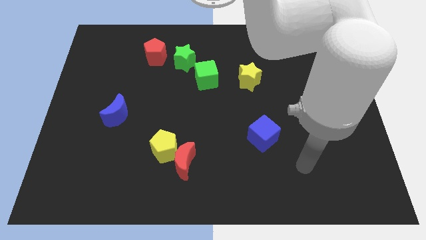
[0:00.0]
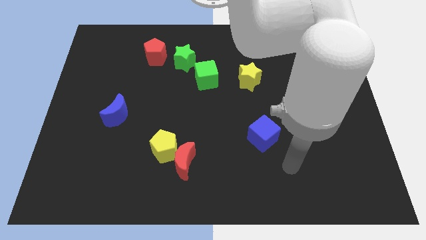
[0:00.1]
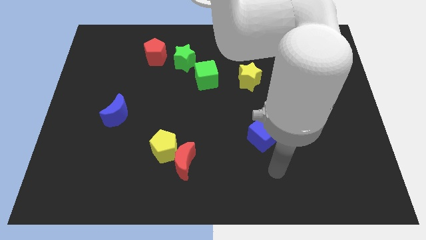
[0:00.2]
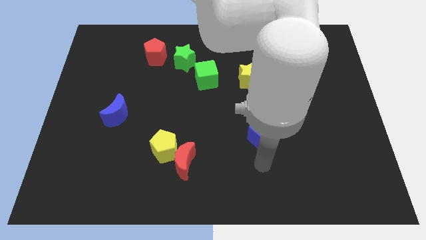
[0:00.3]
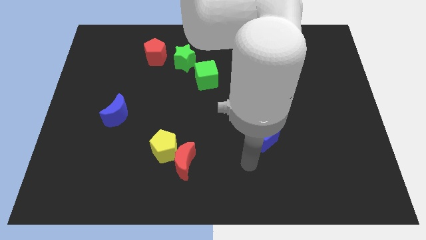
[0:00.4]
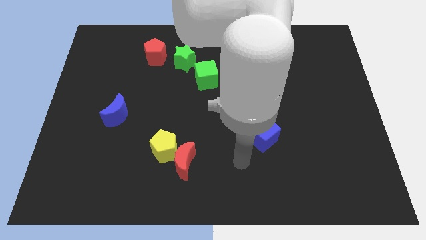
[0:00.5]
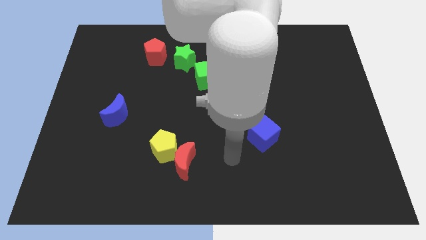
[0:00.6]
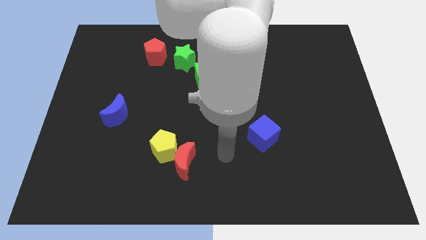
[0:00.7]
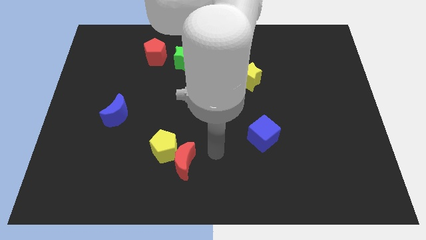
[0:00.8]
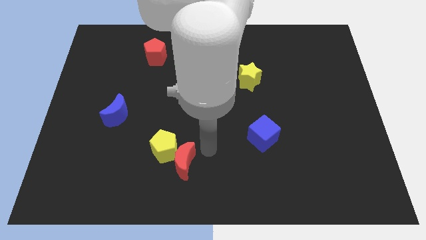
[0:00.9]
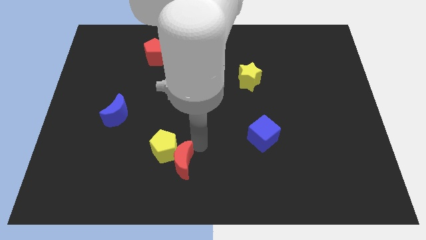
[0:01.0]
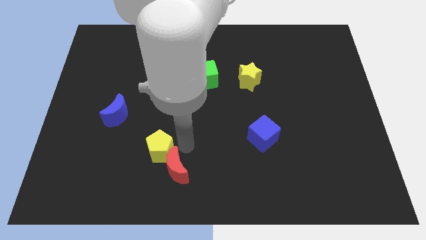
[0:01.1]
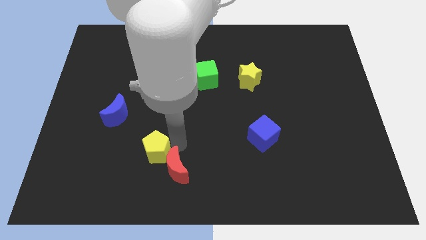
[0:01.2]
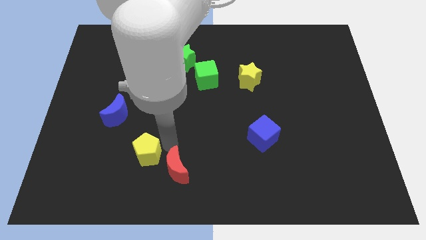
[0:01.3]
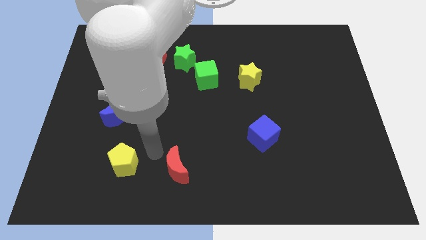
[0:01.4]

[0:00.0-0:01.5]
separate the red moon from the yellow pentagon

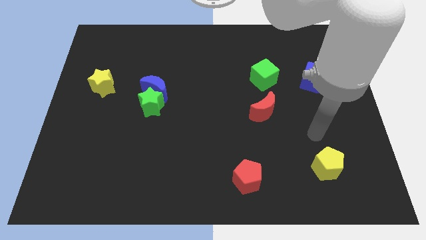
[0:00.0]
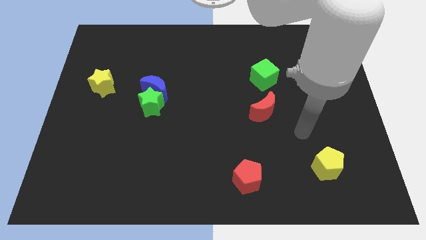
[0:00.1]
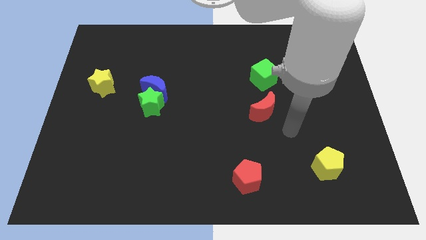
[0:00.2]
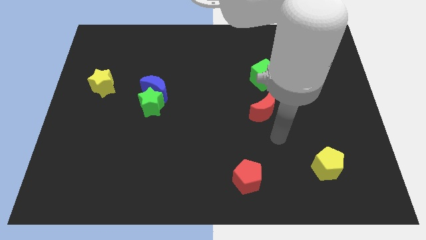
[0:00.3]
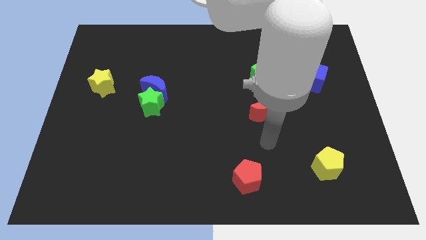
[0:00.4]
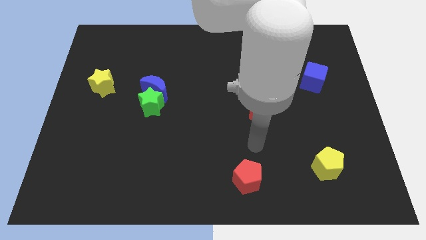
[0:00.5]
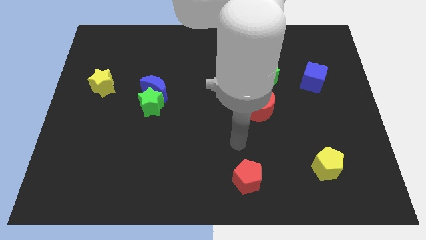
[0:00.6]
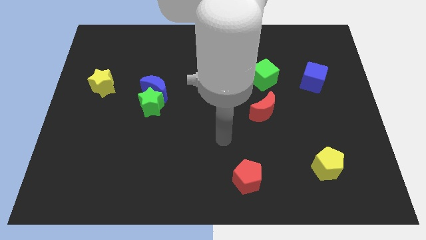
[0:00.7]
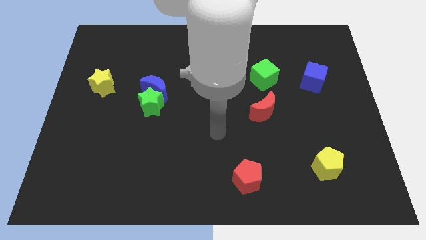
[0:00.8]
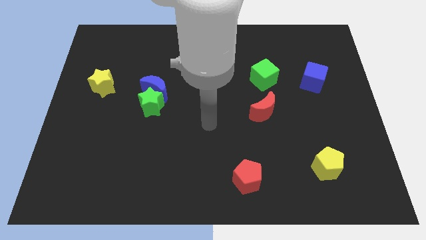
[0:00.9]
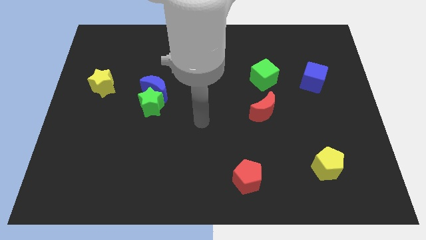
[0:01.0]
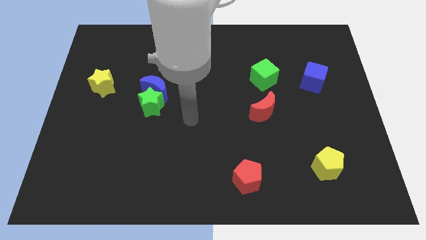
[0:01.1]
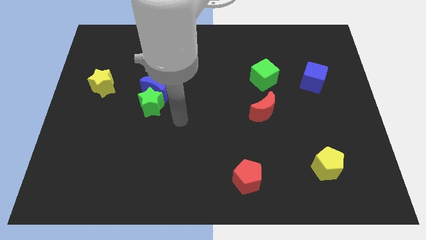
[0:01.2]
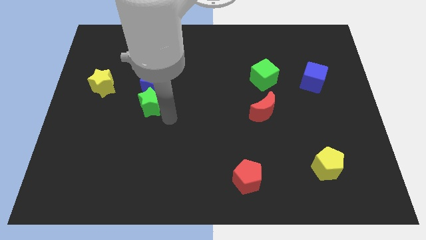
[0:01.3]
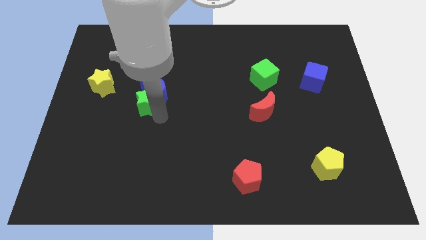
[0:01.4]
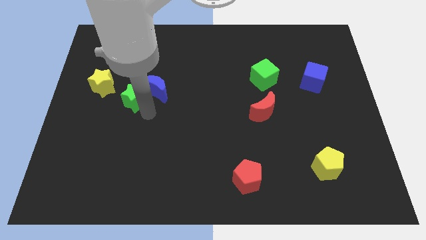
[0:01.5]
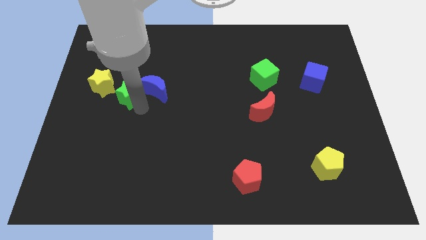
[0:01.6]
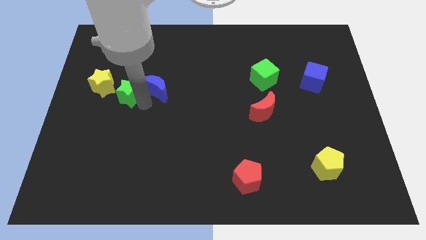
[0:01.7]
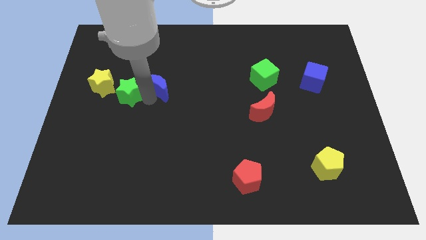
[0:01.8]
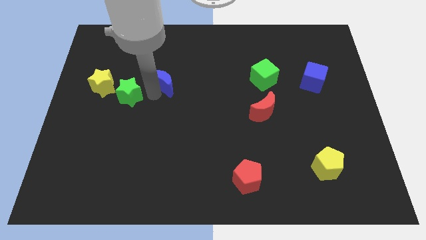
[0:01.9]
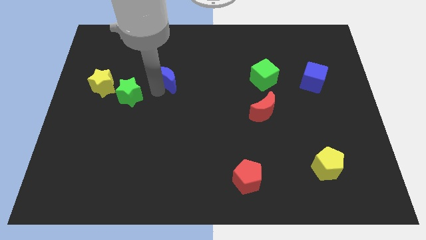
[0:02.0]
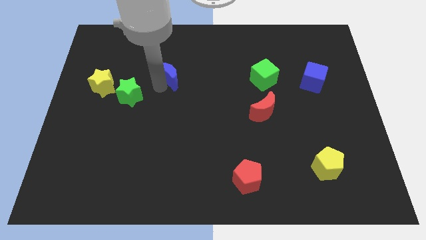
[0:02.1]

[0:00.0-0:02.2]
move the blue moon away from the green star

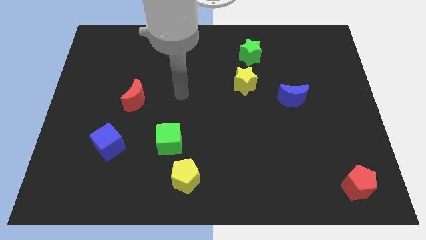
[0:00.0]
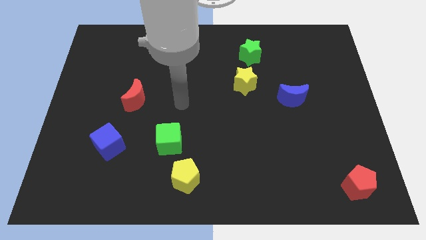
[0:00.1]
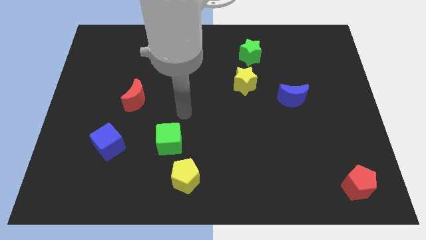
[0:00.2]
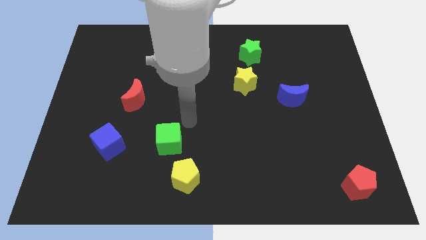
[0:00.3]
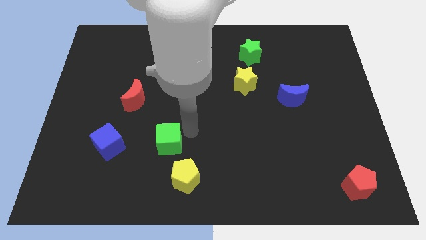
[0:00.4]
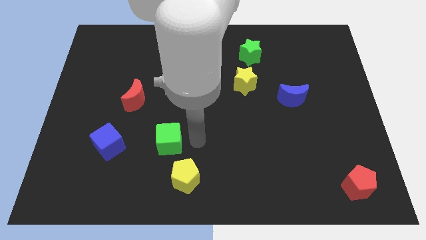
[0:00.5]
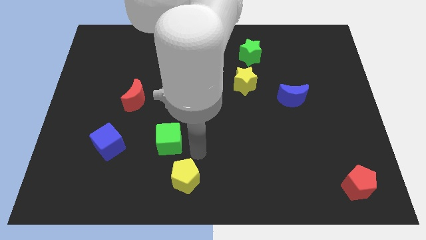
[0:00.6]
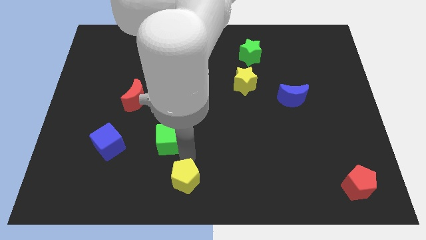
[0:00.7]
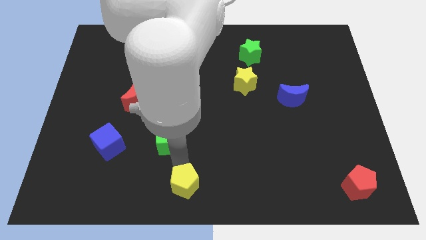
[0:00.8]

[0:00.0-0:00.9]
separate the green cube from the yellow pentagon

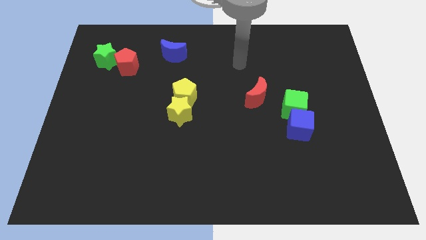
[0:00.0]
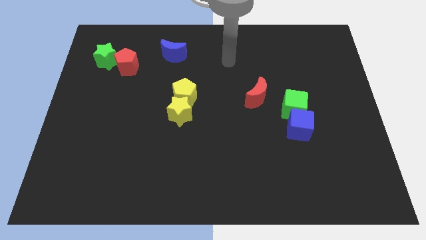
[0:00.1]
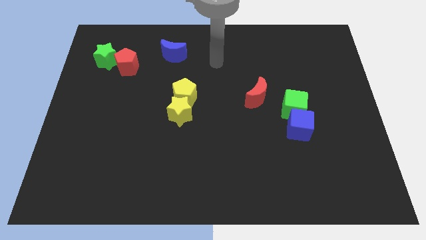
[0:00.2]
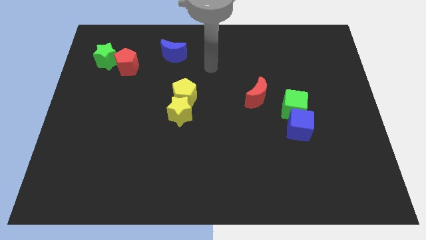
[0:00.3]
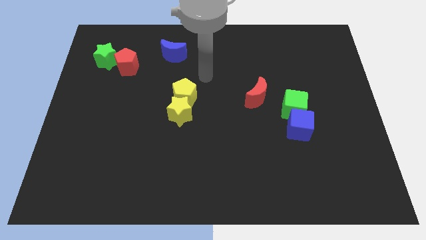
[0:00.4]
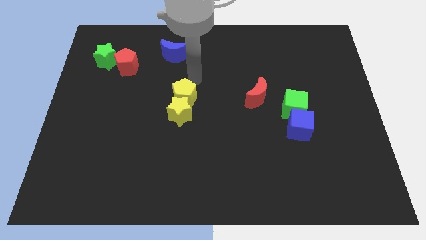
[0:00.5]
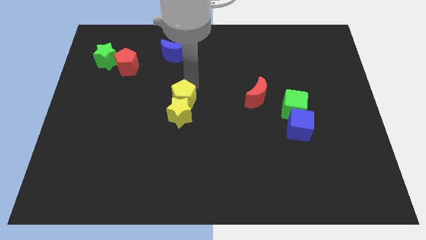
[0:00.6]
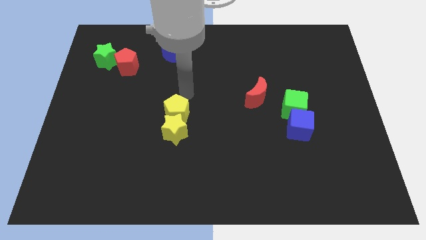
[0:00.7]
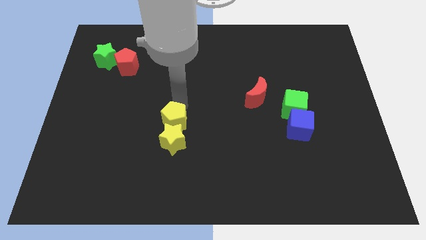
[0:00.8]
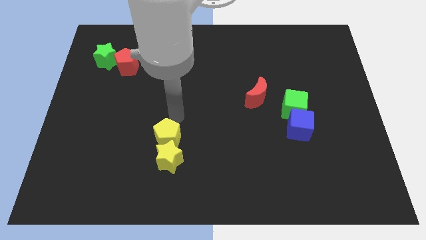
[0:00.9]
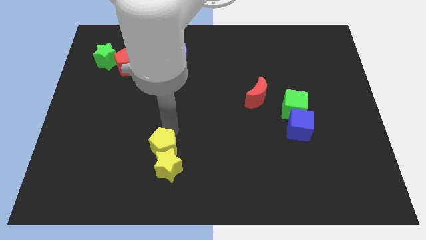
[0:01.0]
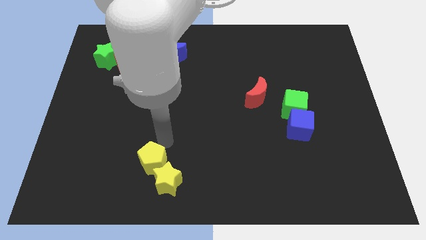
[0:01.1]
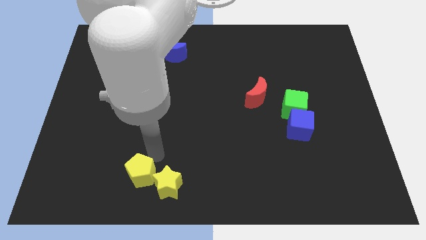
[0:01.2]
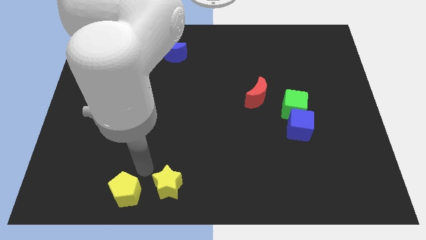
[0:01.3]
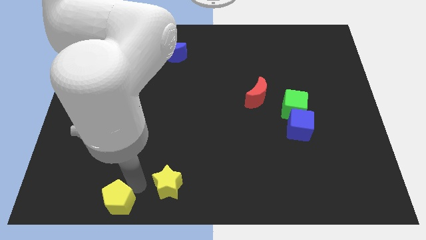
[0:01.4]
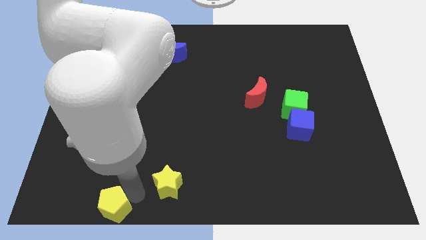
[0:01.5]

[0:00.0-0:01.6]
separate the yellow star from the yellow pentagon

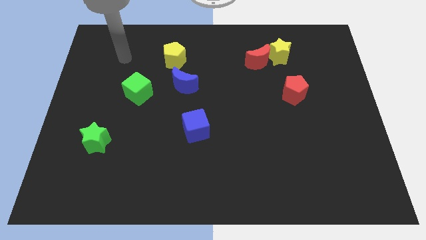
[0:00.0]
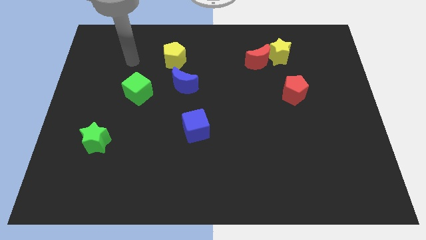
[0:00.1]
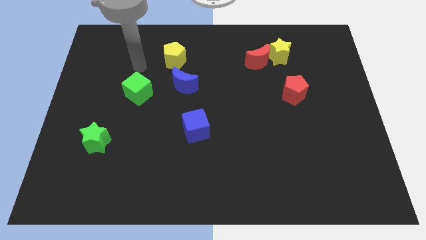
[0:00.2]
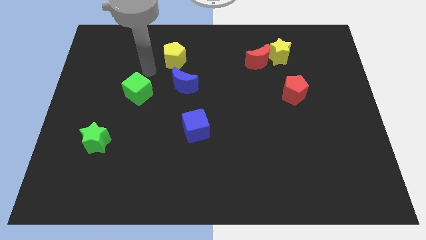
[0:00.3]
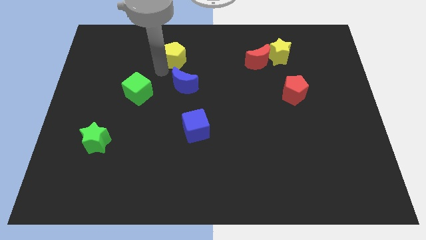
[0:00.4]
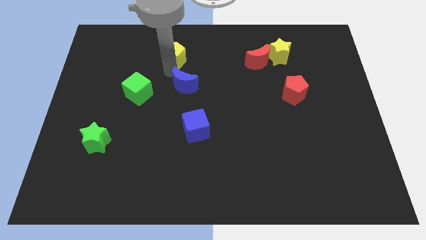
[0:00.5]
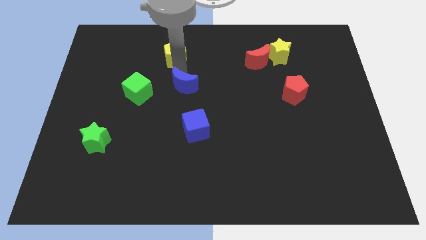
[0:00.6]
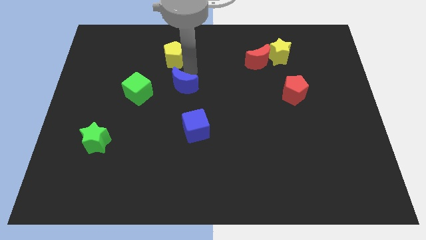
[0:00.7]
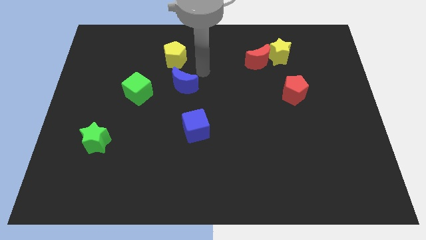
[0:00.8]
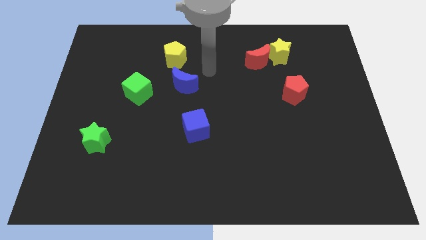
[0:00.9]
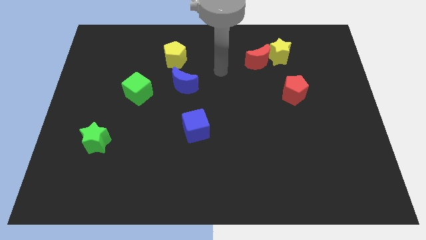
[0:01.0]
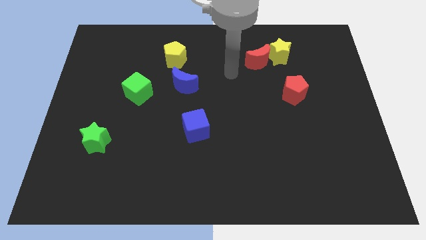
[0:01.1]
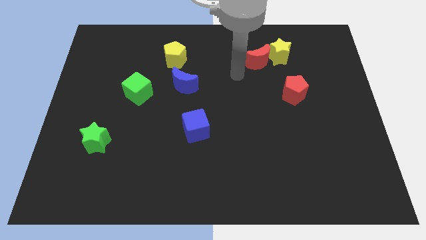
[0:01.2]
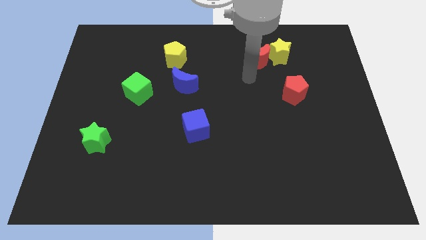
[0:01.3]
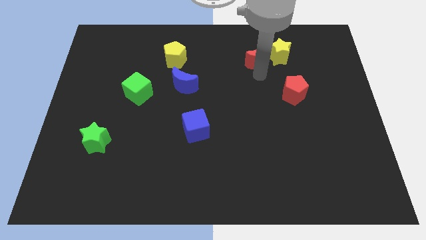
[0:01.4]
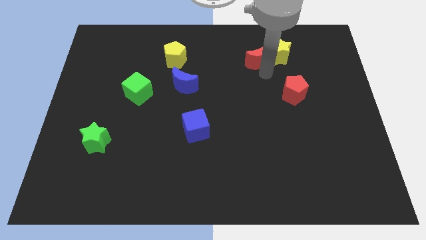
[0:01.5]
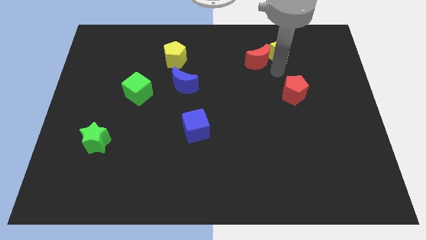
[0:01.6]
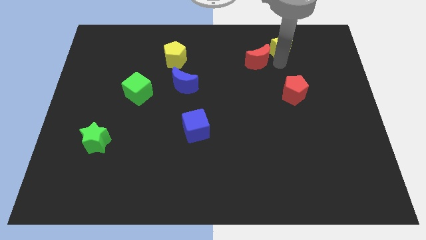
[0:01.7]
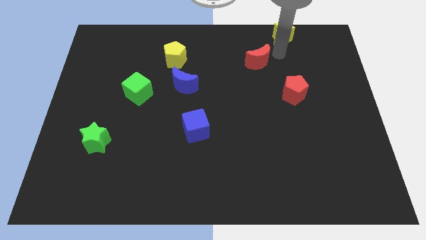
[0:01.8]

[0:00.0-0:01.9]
move the red moon away from the yellow star

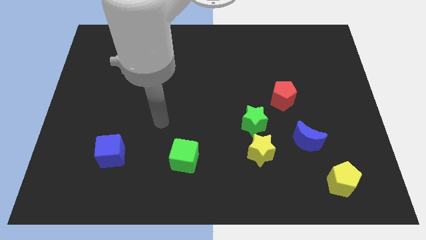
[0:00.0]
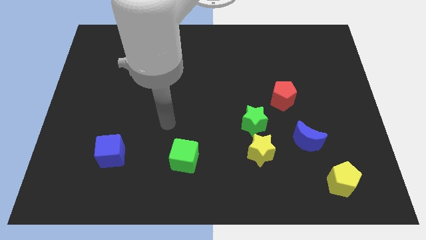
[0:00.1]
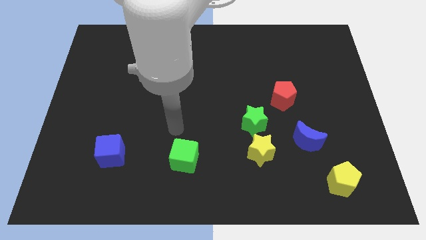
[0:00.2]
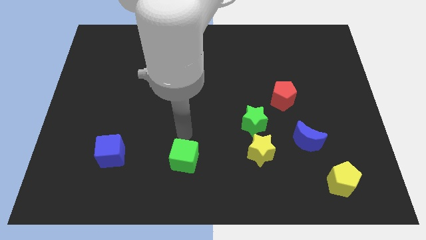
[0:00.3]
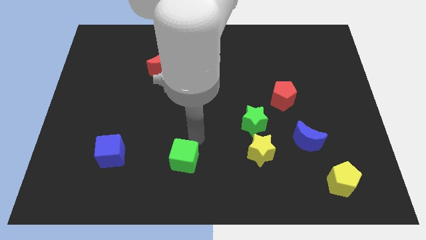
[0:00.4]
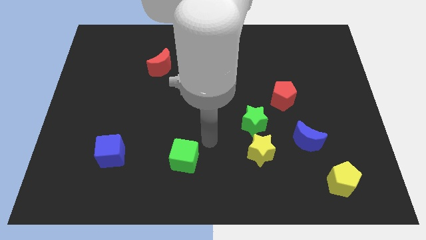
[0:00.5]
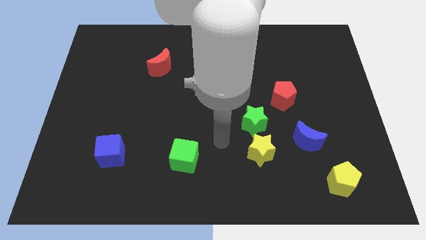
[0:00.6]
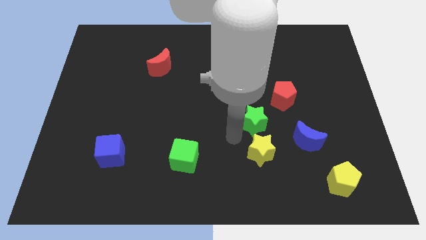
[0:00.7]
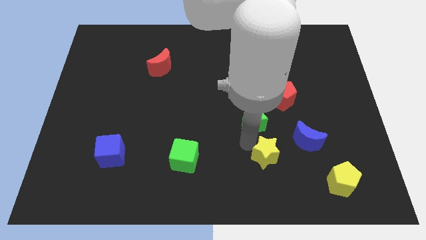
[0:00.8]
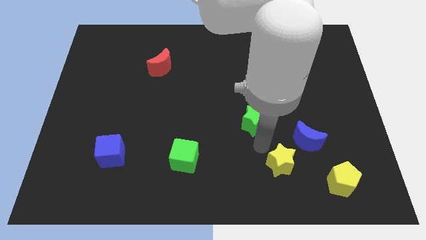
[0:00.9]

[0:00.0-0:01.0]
move the green star away from the yellow star

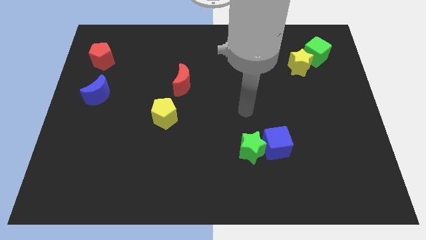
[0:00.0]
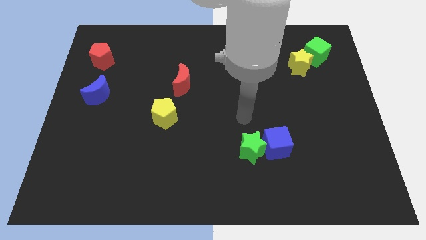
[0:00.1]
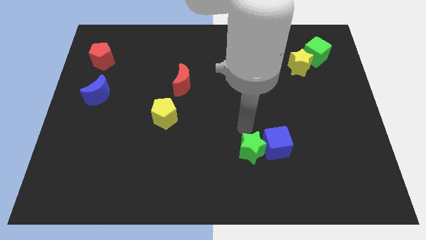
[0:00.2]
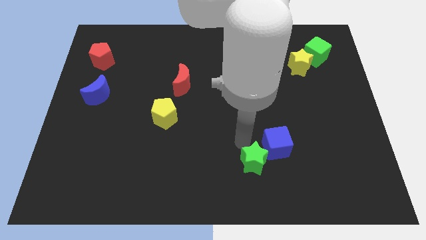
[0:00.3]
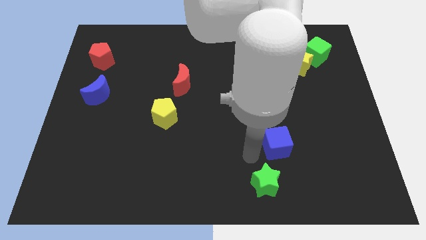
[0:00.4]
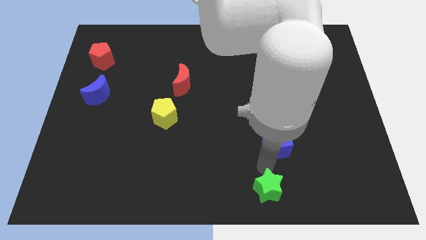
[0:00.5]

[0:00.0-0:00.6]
pull the blue cube apart from the green star
